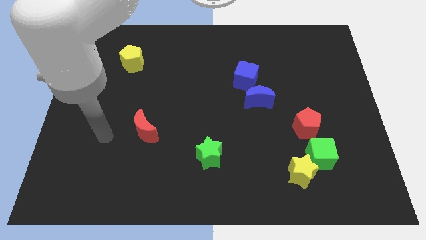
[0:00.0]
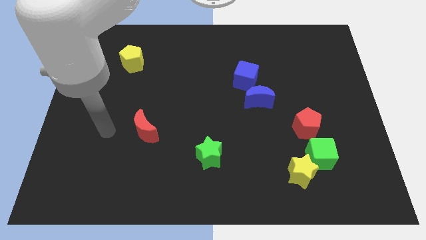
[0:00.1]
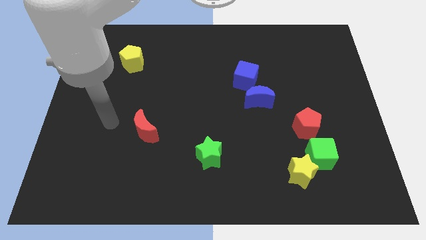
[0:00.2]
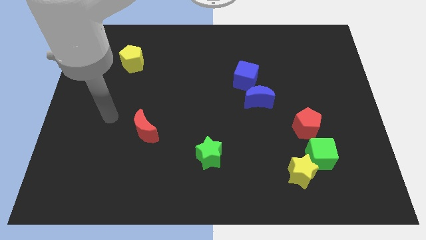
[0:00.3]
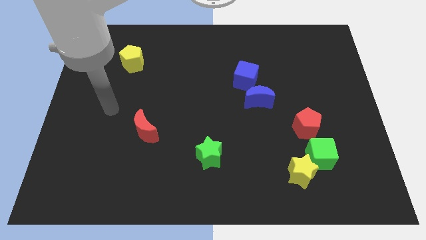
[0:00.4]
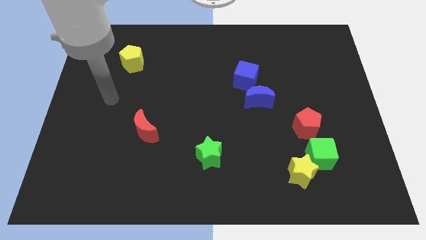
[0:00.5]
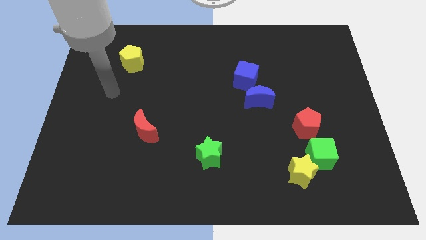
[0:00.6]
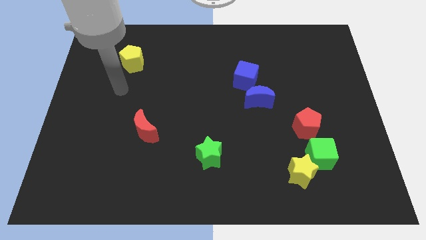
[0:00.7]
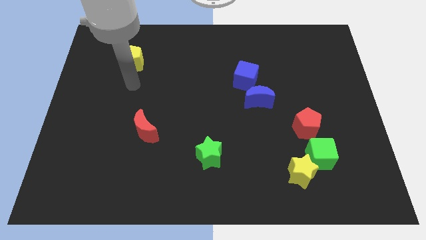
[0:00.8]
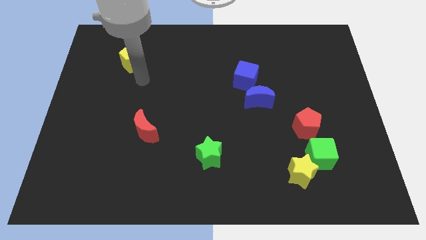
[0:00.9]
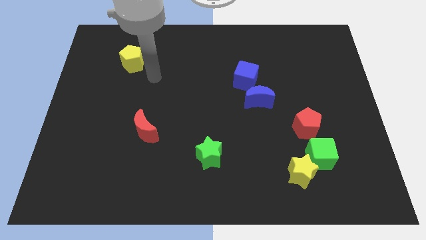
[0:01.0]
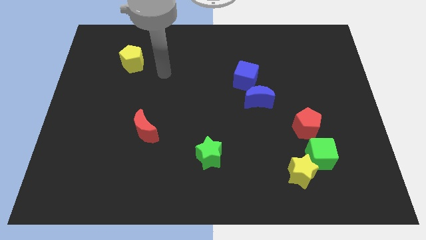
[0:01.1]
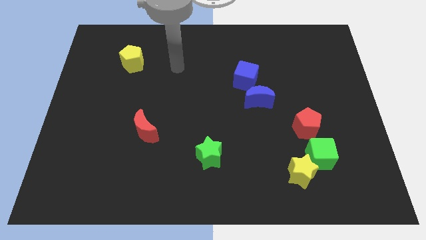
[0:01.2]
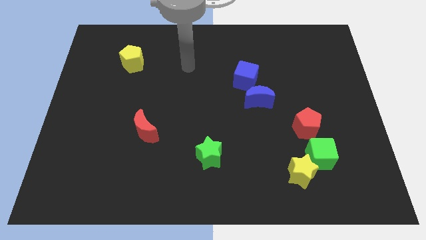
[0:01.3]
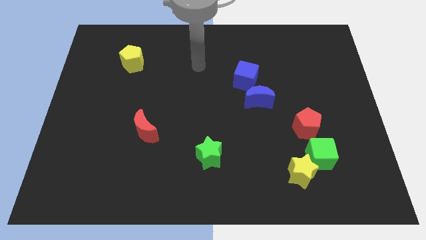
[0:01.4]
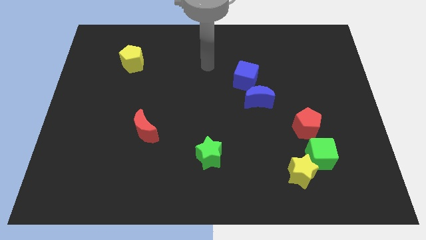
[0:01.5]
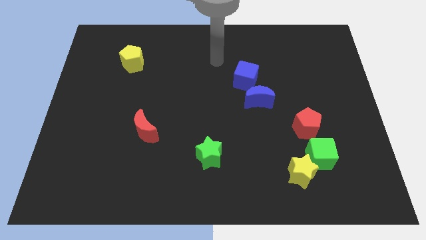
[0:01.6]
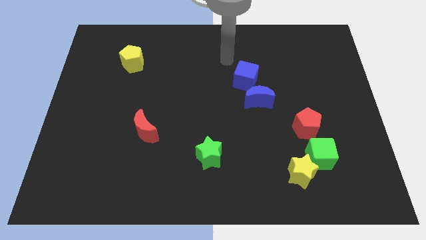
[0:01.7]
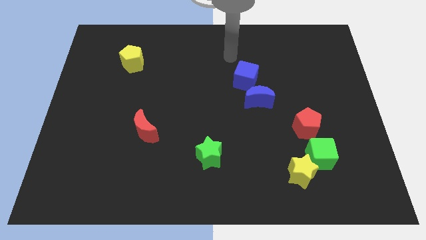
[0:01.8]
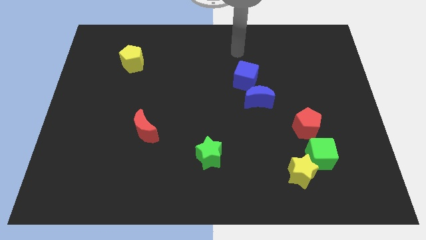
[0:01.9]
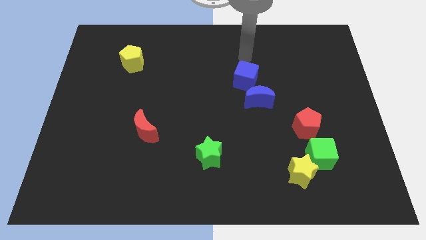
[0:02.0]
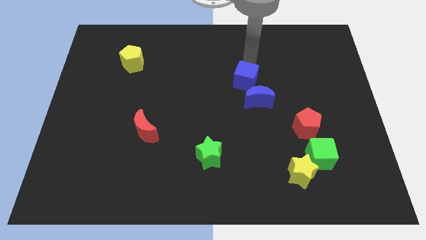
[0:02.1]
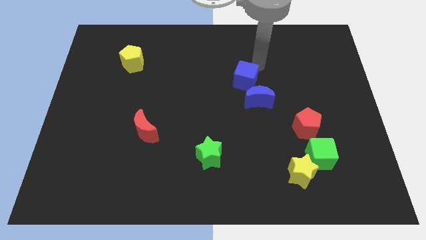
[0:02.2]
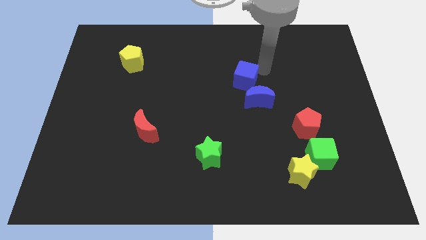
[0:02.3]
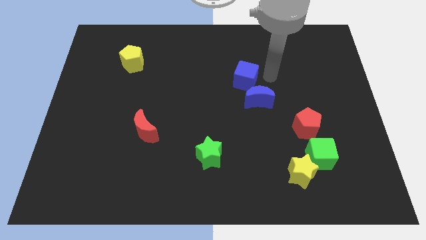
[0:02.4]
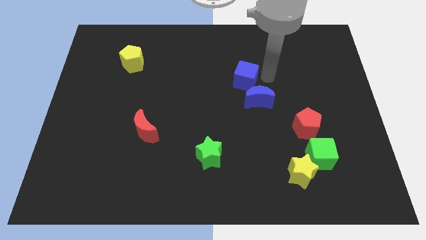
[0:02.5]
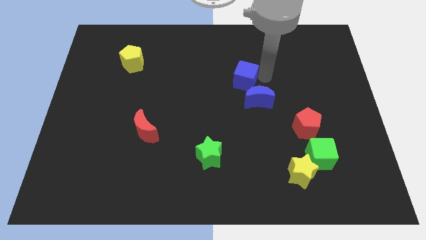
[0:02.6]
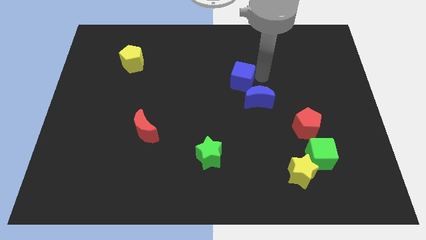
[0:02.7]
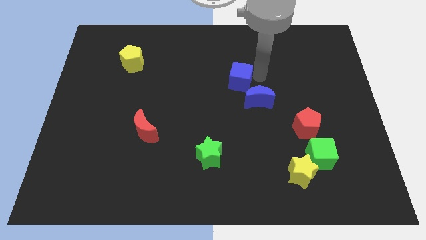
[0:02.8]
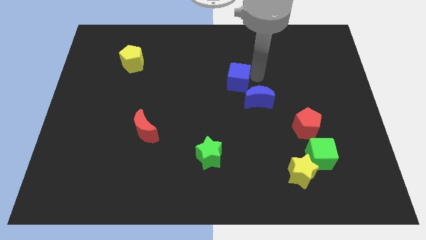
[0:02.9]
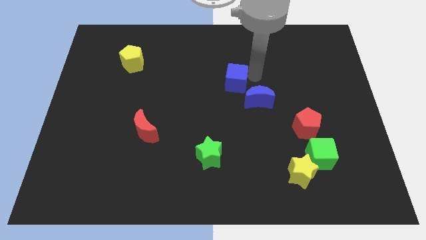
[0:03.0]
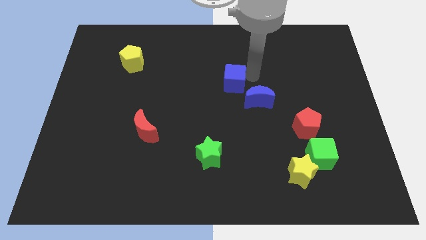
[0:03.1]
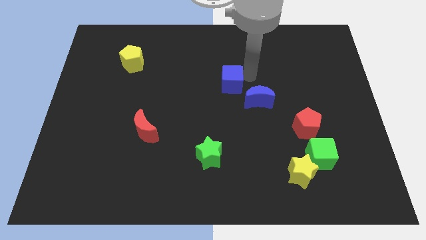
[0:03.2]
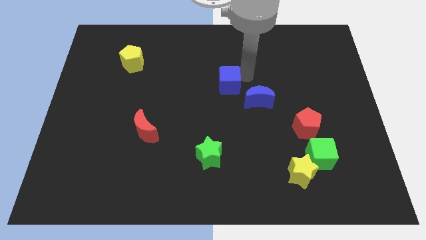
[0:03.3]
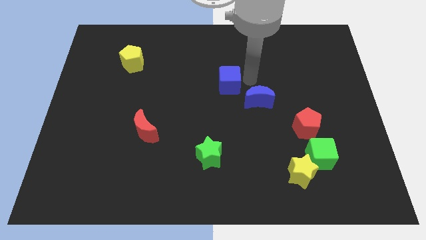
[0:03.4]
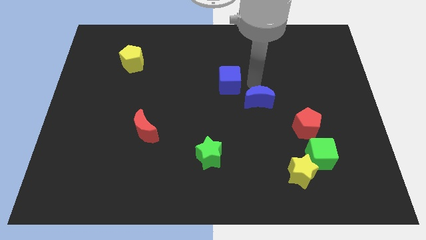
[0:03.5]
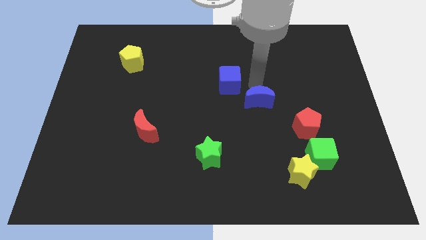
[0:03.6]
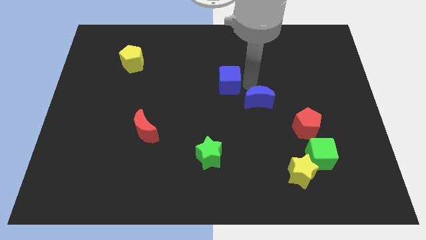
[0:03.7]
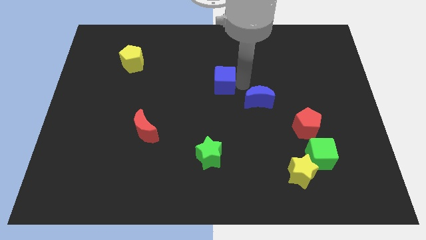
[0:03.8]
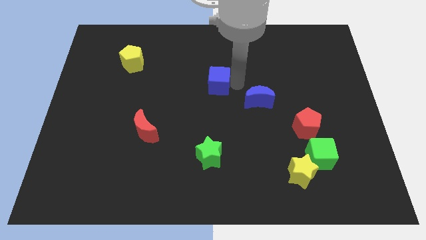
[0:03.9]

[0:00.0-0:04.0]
slightly move the blue cube left

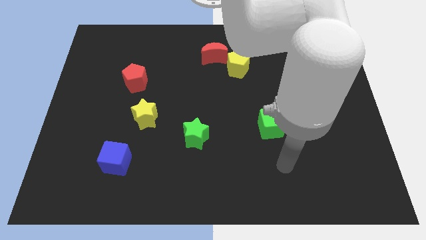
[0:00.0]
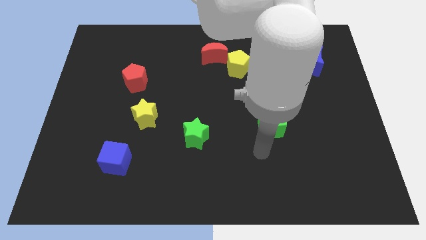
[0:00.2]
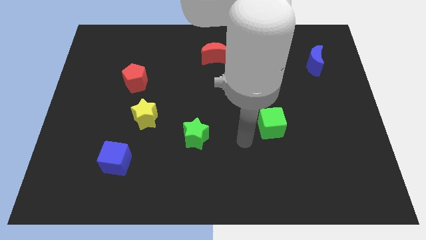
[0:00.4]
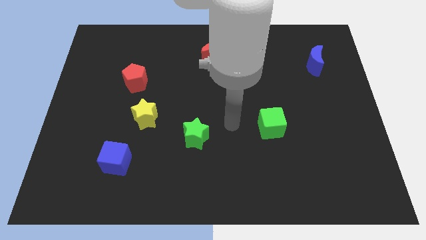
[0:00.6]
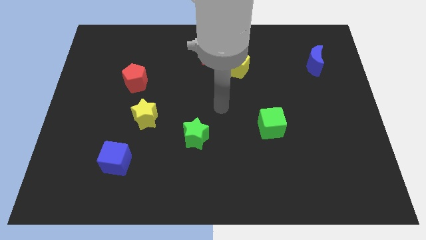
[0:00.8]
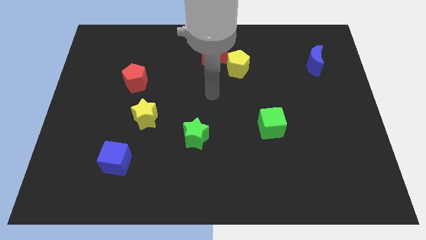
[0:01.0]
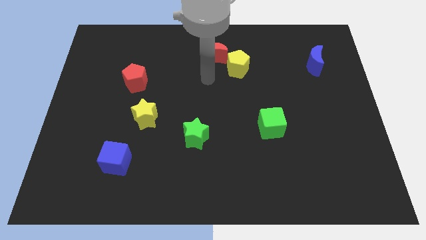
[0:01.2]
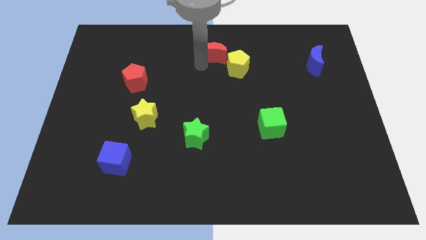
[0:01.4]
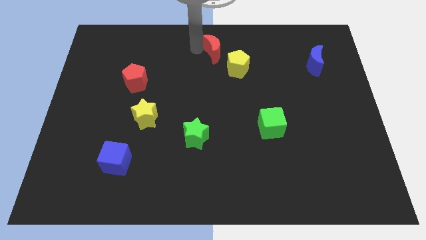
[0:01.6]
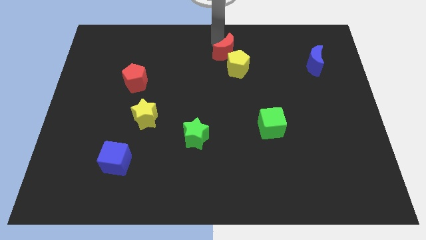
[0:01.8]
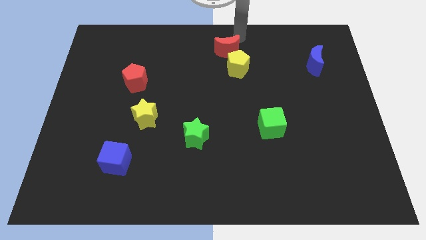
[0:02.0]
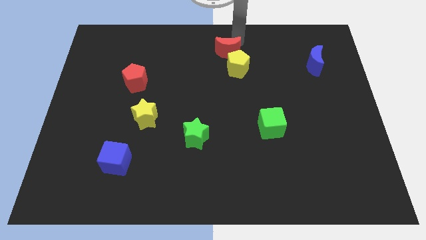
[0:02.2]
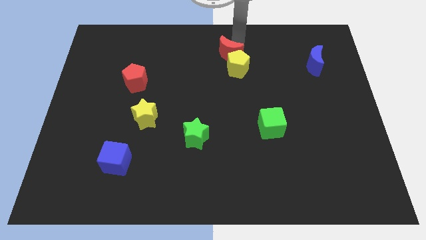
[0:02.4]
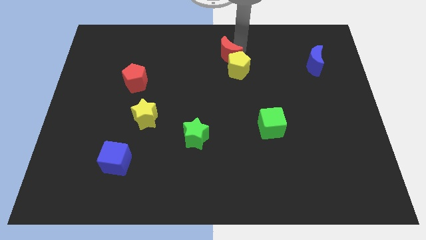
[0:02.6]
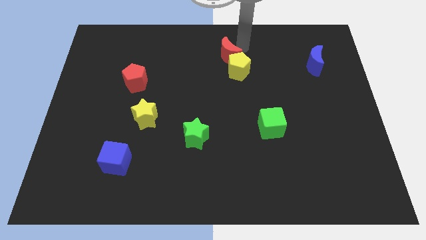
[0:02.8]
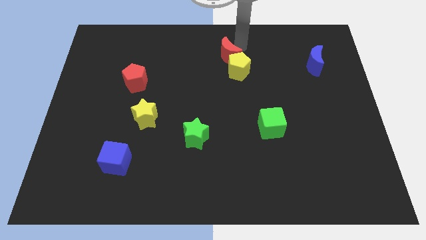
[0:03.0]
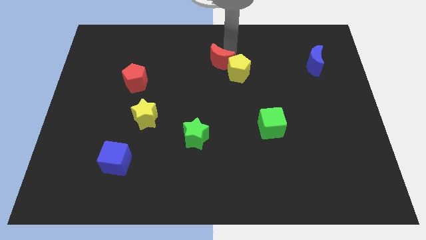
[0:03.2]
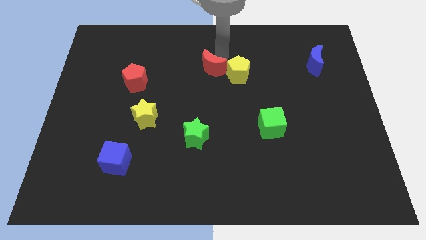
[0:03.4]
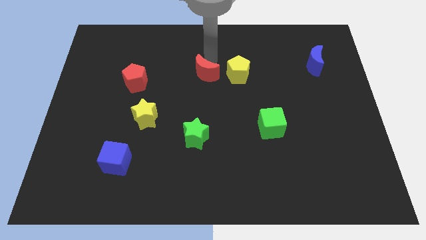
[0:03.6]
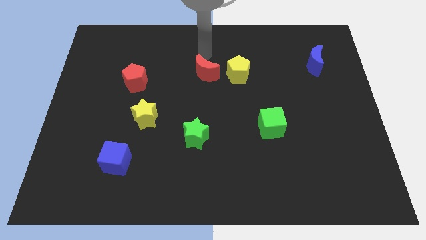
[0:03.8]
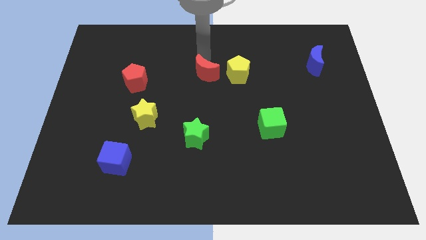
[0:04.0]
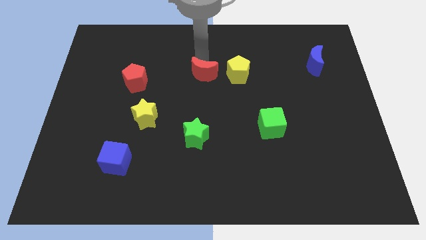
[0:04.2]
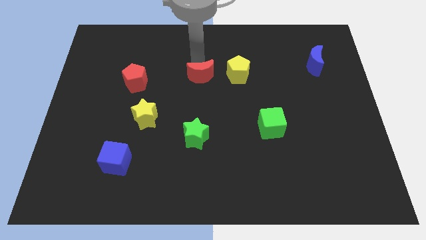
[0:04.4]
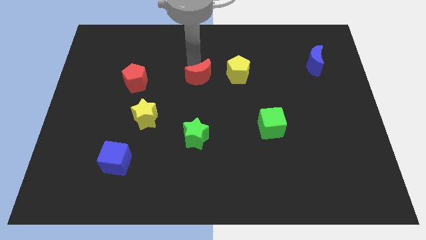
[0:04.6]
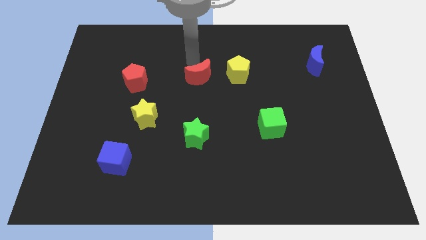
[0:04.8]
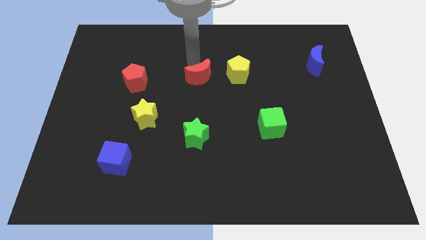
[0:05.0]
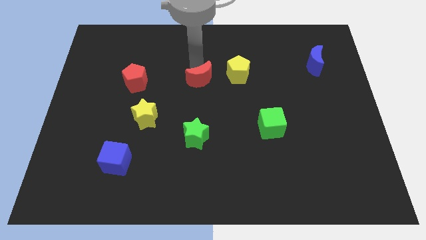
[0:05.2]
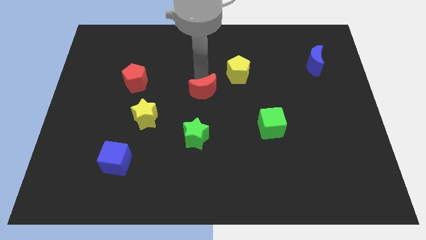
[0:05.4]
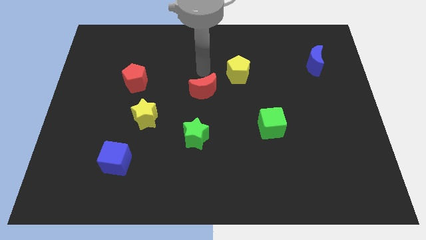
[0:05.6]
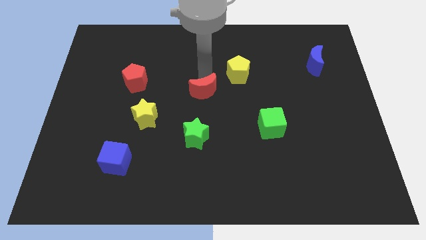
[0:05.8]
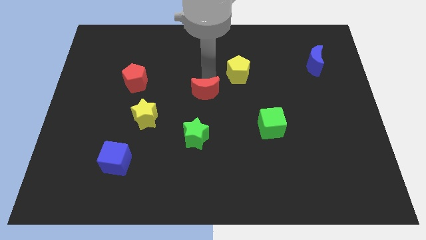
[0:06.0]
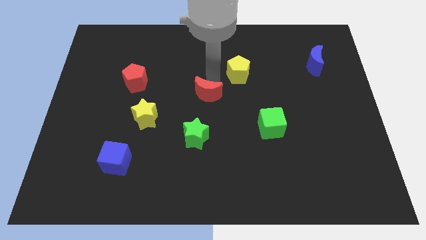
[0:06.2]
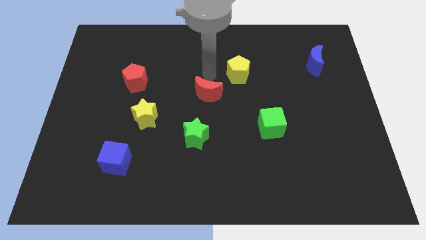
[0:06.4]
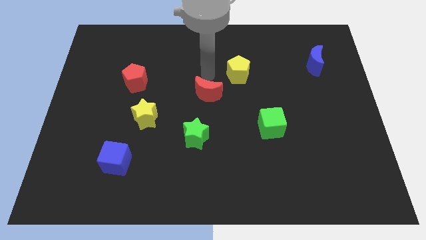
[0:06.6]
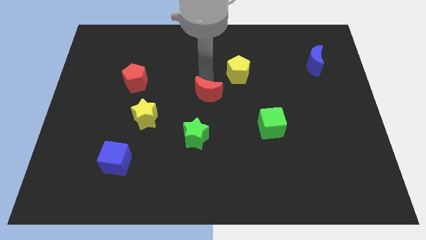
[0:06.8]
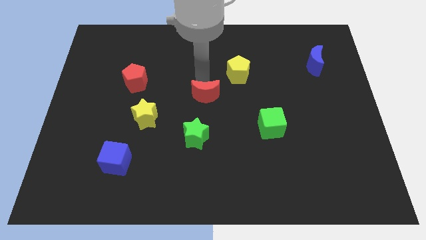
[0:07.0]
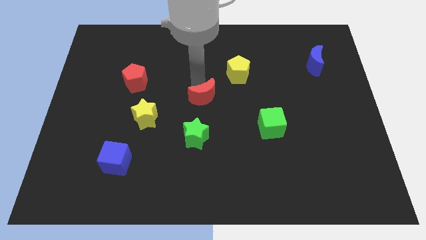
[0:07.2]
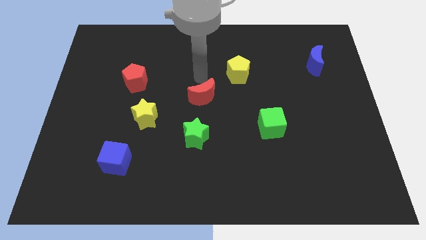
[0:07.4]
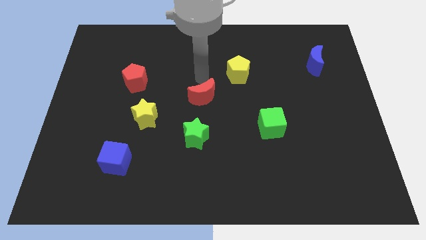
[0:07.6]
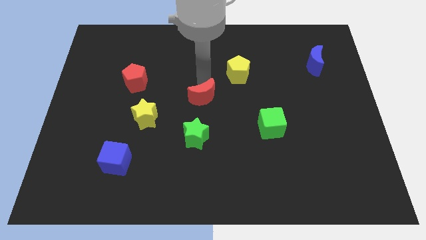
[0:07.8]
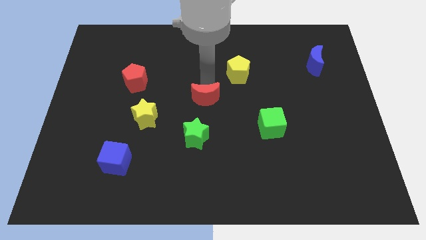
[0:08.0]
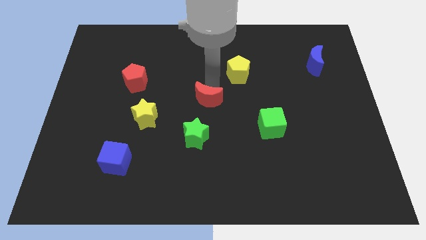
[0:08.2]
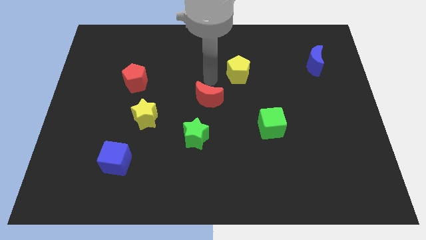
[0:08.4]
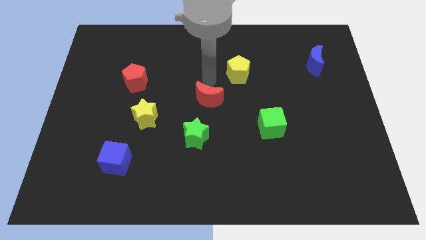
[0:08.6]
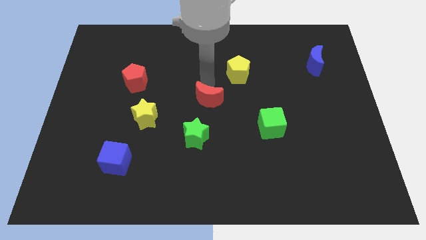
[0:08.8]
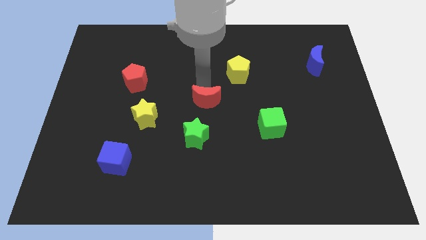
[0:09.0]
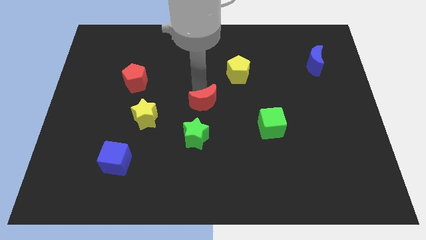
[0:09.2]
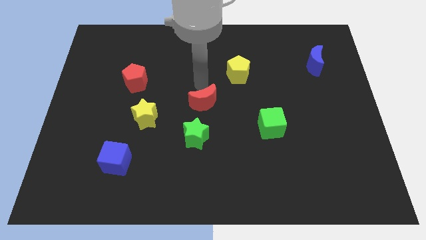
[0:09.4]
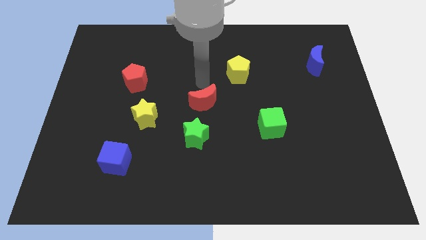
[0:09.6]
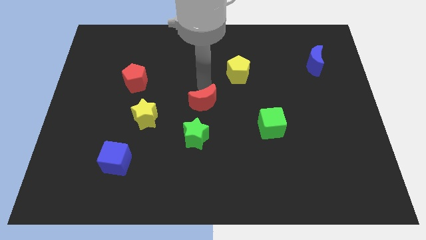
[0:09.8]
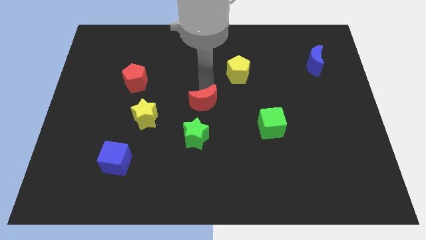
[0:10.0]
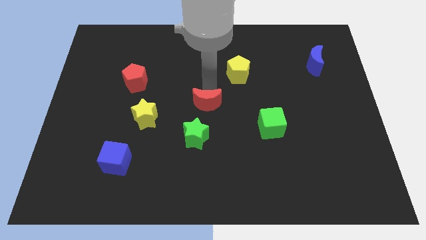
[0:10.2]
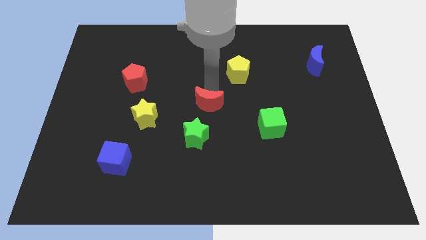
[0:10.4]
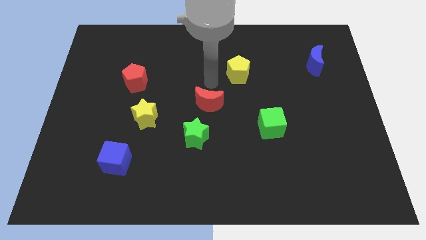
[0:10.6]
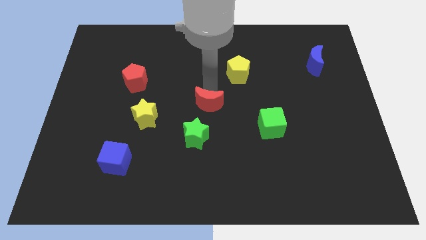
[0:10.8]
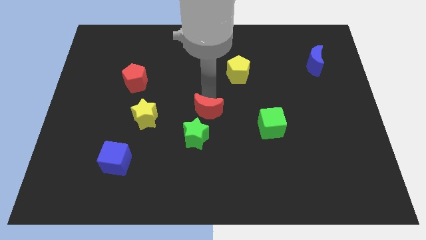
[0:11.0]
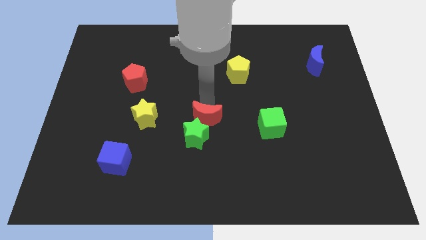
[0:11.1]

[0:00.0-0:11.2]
move the red moon downwards
